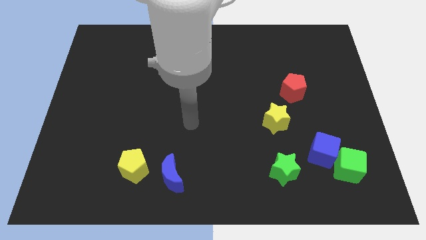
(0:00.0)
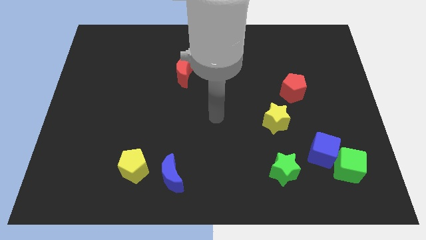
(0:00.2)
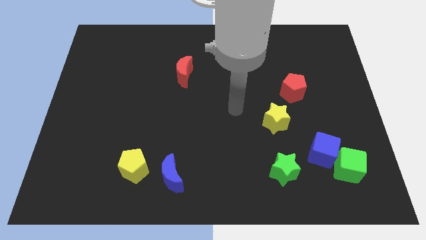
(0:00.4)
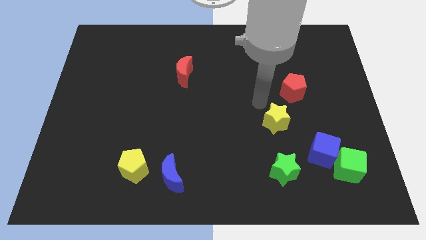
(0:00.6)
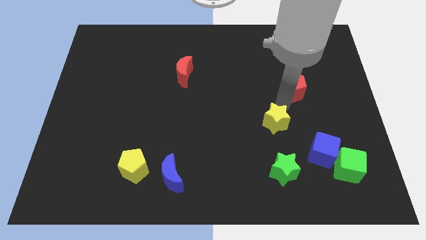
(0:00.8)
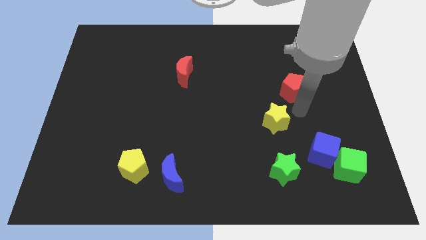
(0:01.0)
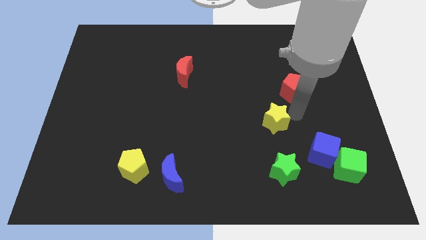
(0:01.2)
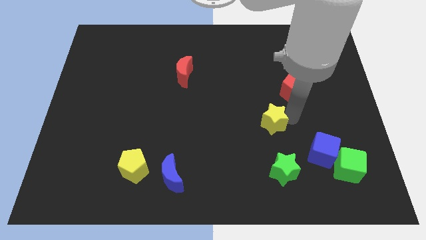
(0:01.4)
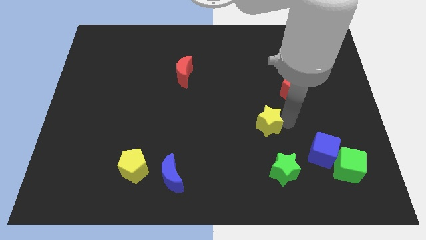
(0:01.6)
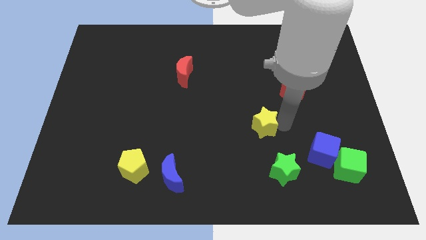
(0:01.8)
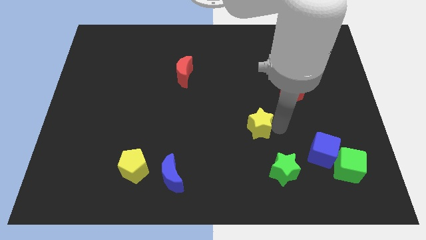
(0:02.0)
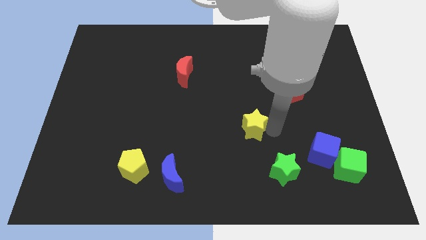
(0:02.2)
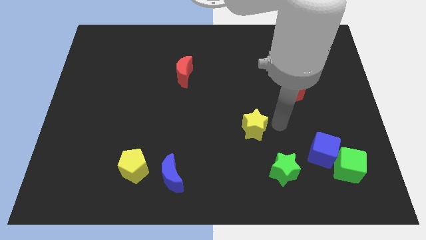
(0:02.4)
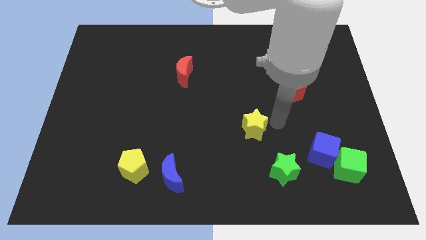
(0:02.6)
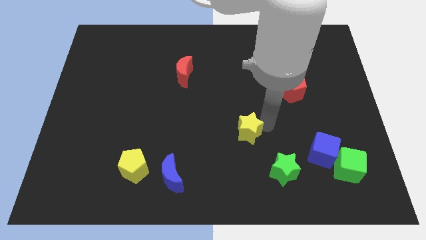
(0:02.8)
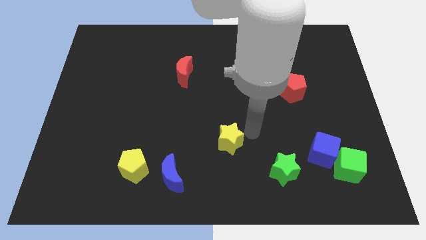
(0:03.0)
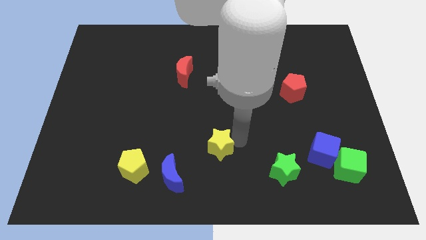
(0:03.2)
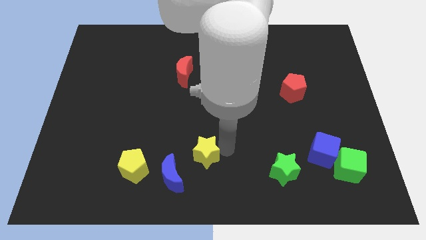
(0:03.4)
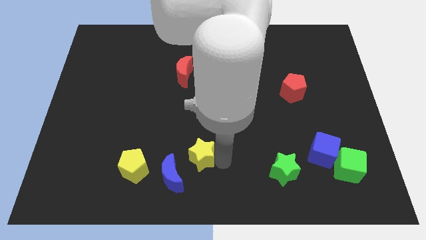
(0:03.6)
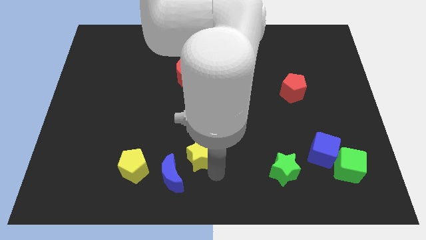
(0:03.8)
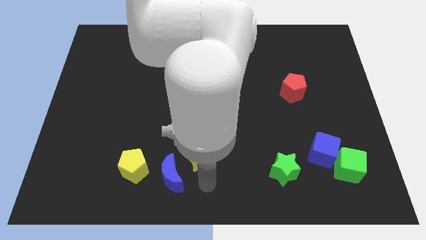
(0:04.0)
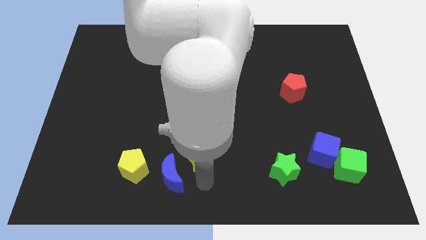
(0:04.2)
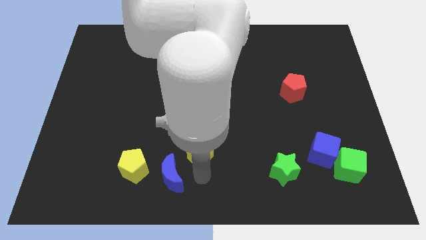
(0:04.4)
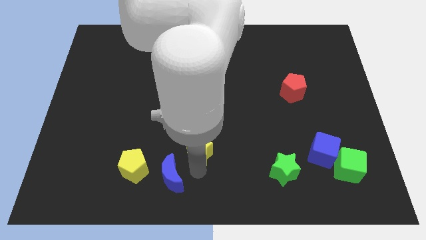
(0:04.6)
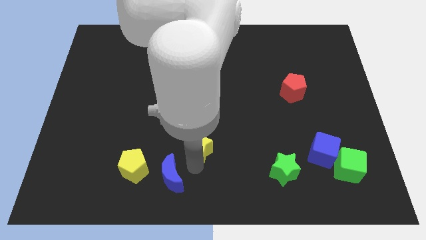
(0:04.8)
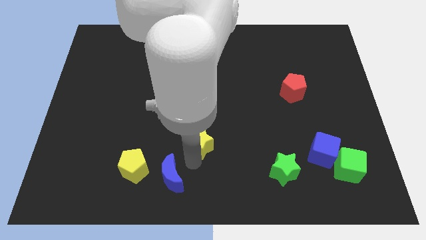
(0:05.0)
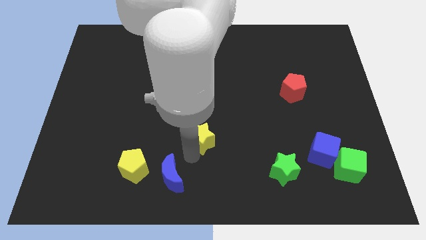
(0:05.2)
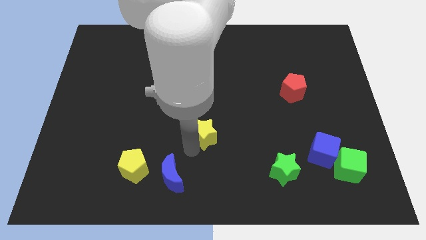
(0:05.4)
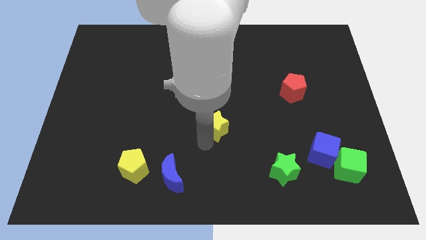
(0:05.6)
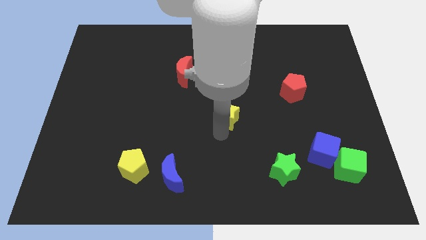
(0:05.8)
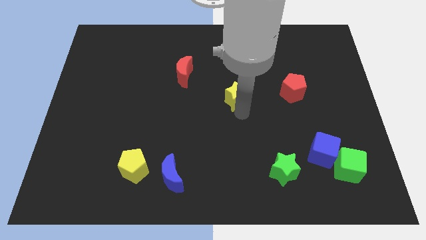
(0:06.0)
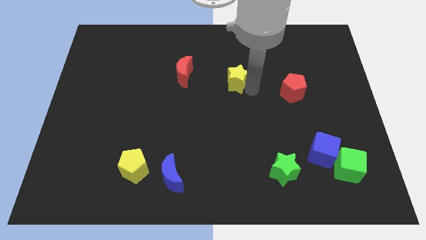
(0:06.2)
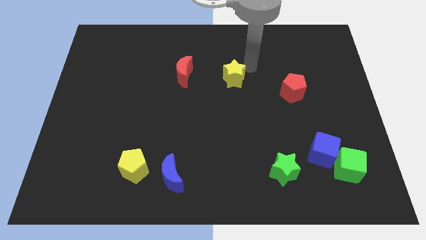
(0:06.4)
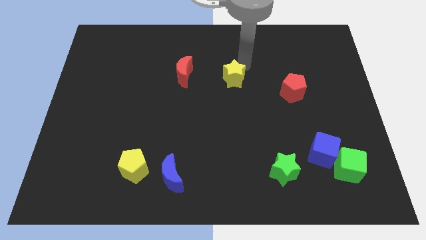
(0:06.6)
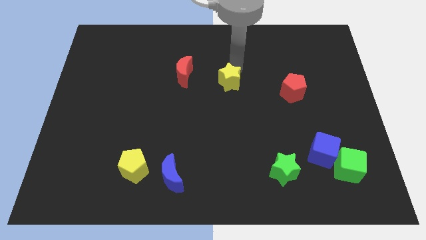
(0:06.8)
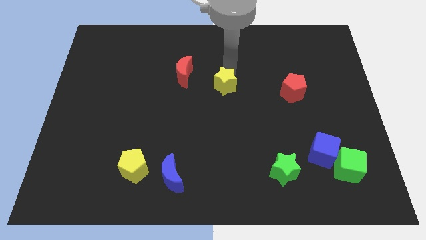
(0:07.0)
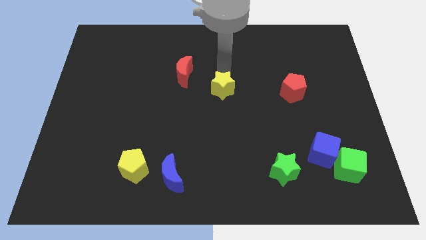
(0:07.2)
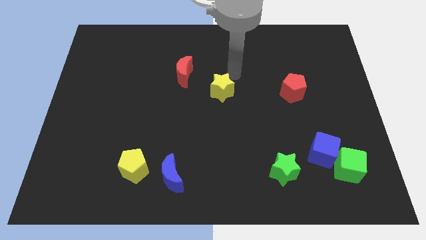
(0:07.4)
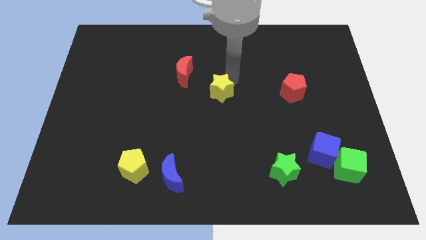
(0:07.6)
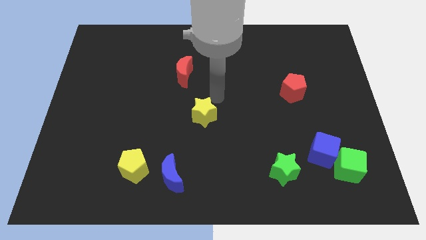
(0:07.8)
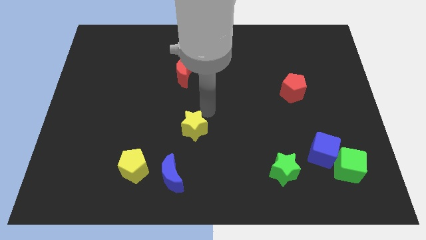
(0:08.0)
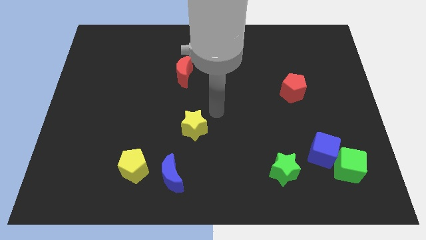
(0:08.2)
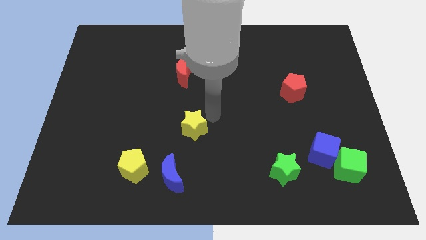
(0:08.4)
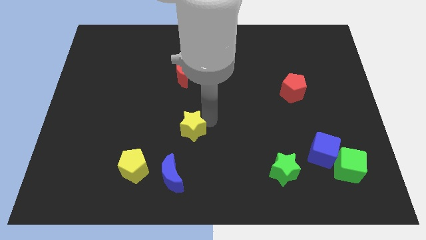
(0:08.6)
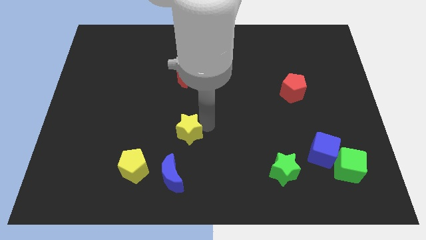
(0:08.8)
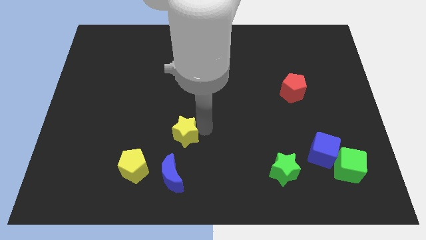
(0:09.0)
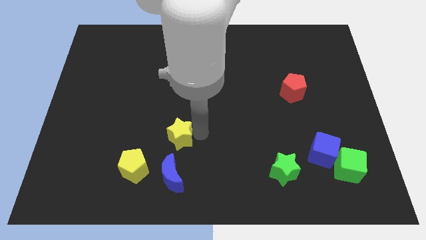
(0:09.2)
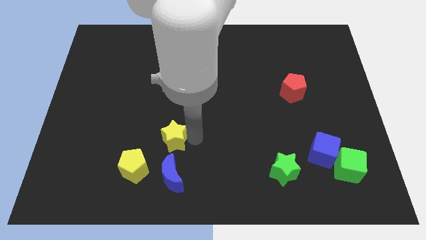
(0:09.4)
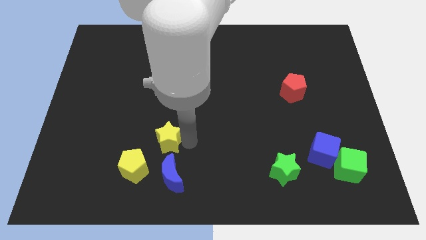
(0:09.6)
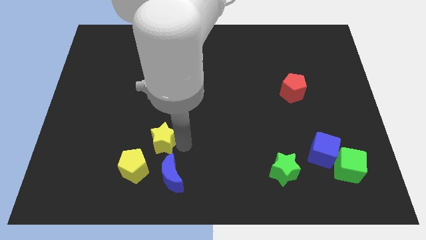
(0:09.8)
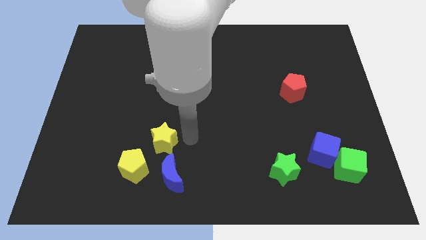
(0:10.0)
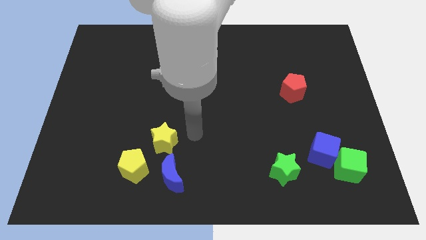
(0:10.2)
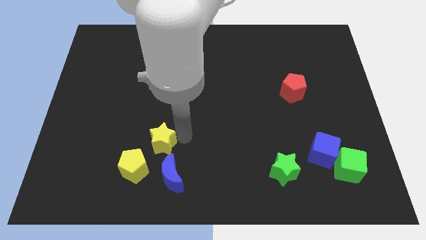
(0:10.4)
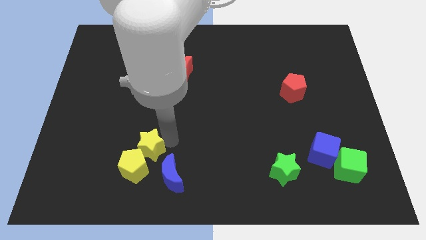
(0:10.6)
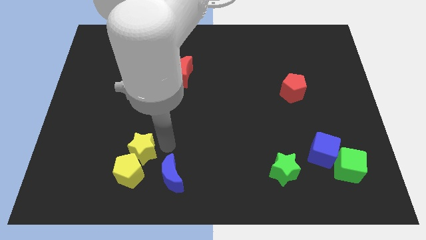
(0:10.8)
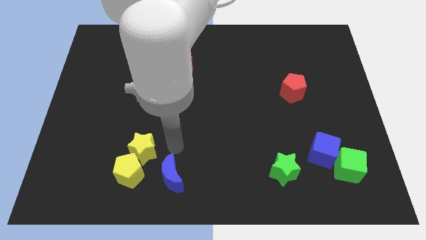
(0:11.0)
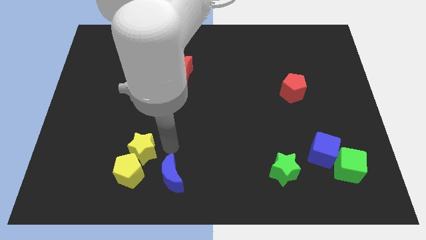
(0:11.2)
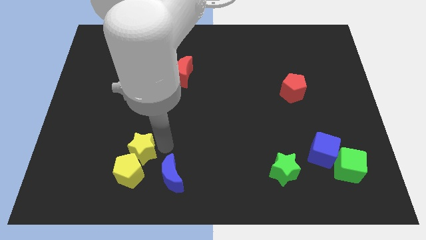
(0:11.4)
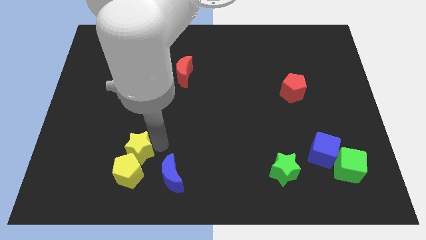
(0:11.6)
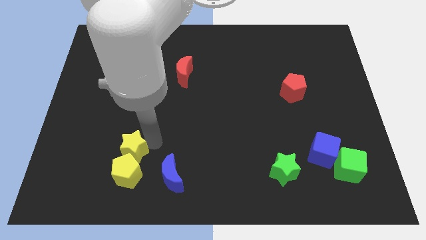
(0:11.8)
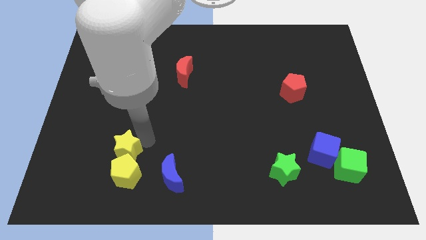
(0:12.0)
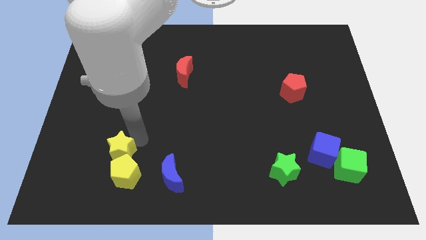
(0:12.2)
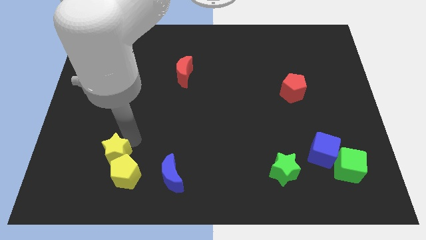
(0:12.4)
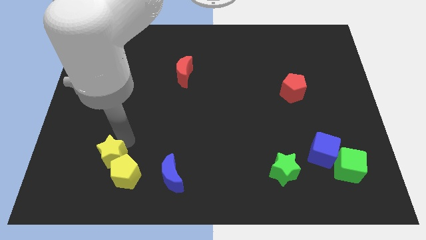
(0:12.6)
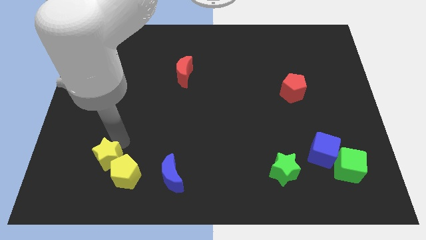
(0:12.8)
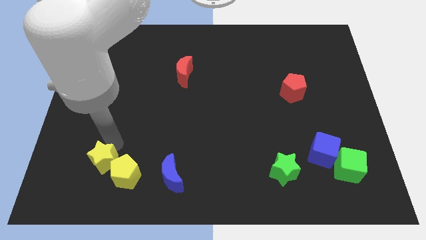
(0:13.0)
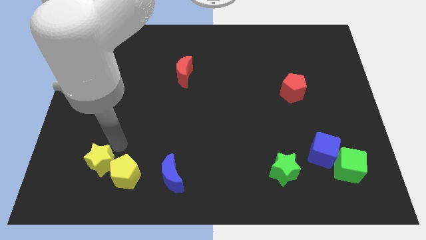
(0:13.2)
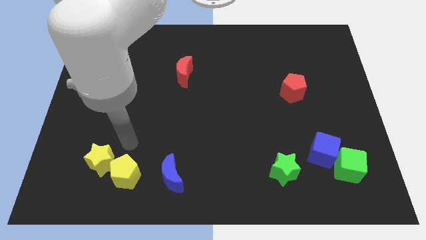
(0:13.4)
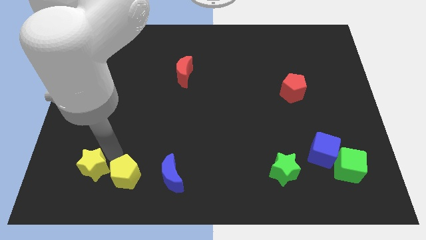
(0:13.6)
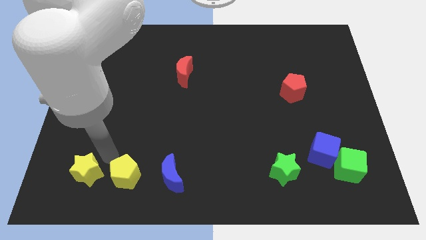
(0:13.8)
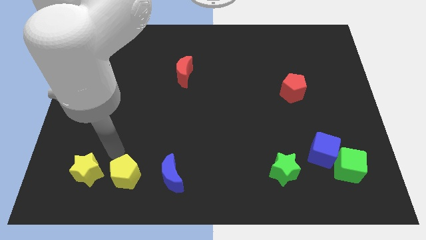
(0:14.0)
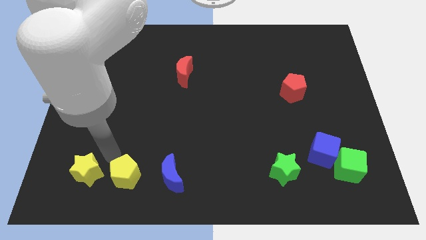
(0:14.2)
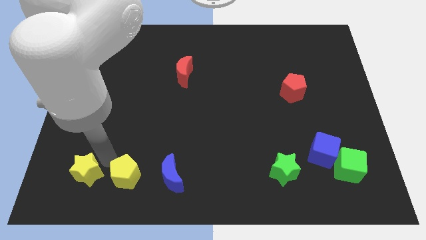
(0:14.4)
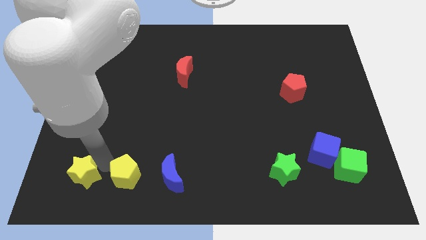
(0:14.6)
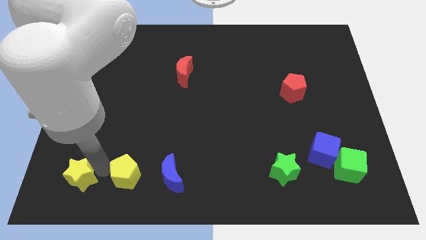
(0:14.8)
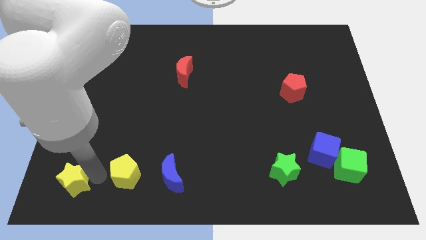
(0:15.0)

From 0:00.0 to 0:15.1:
move the yellow star to the bottom left of the board
